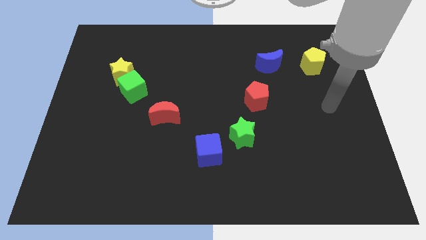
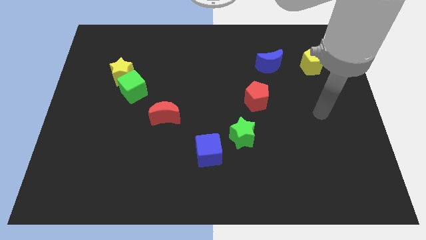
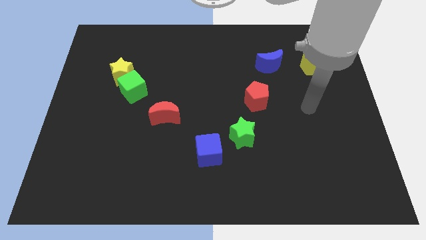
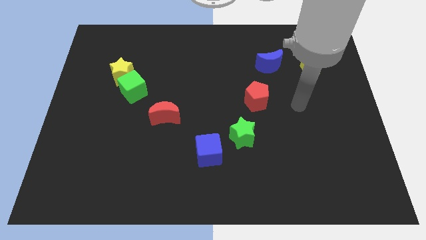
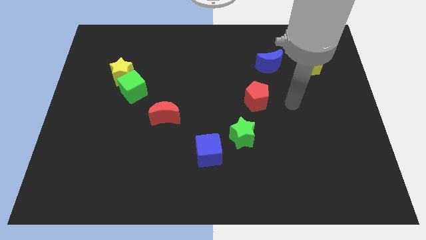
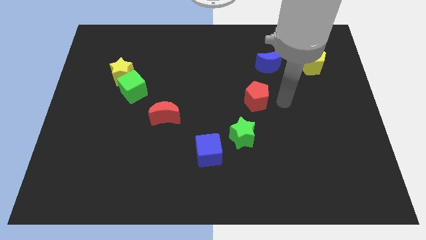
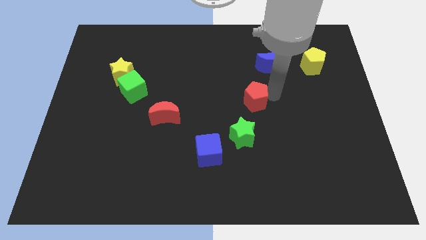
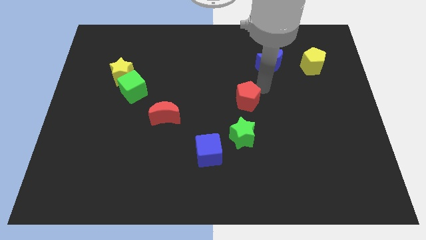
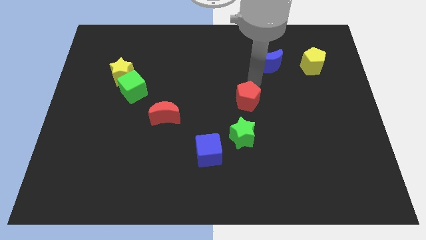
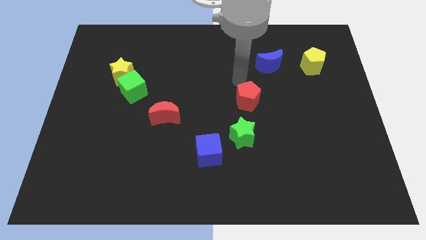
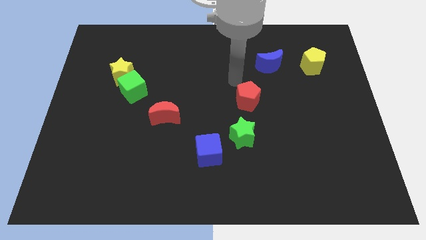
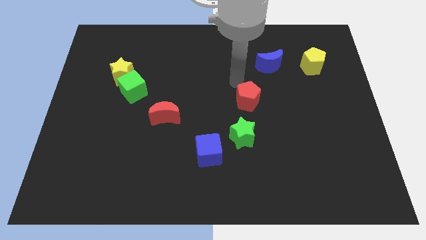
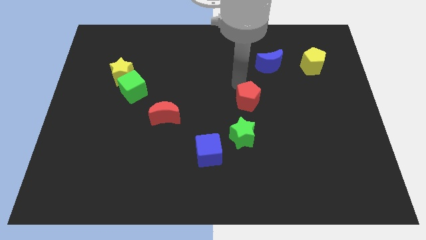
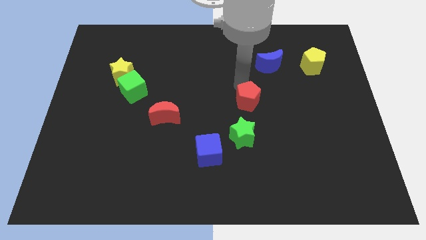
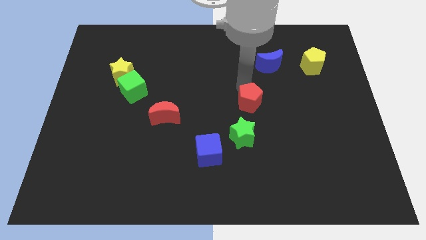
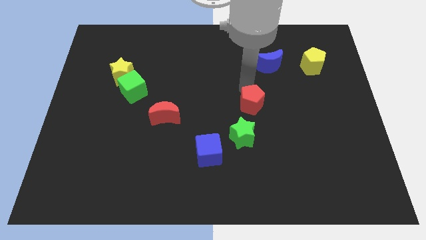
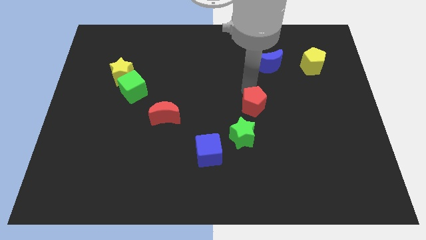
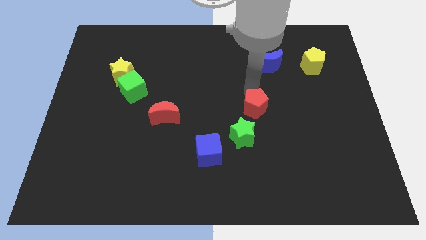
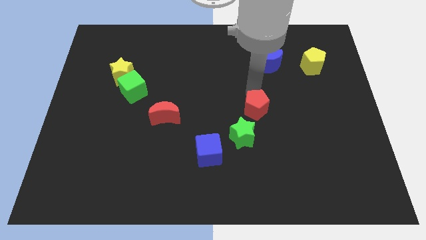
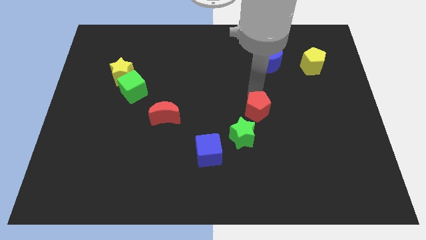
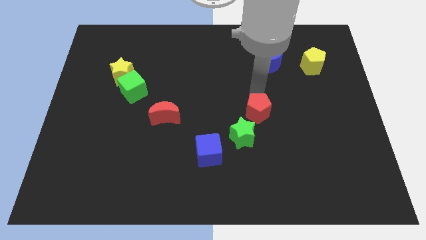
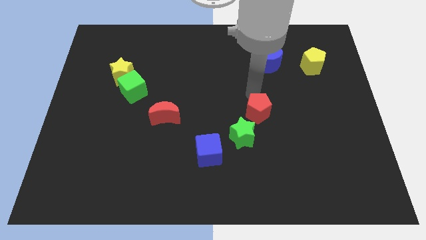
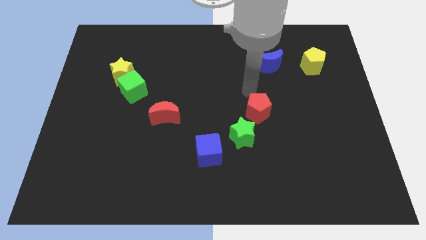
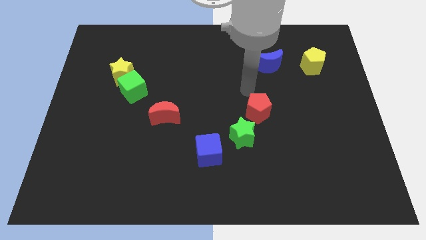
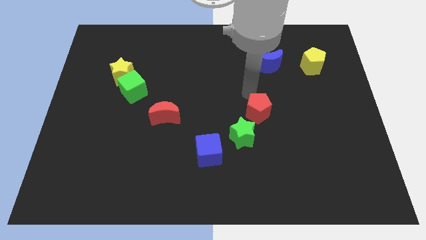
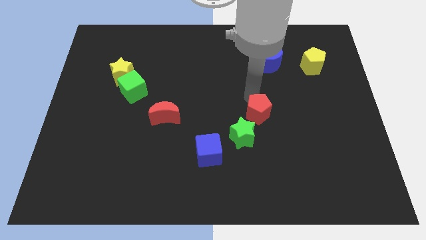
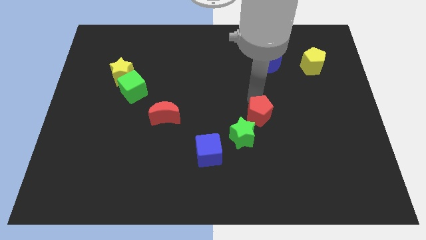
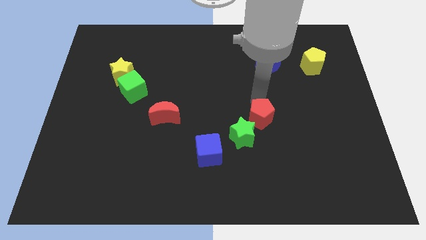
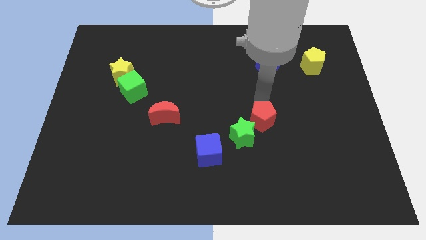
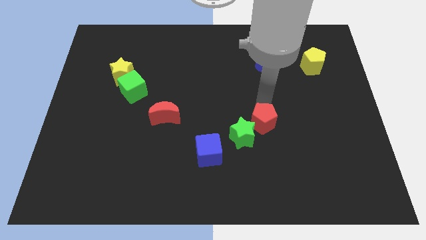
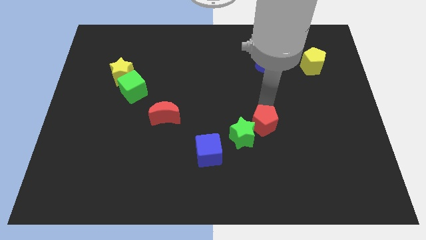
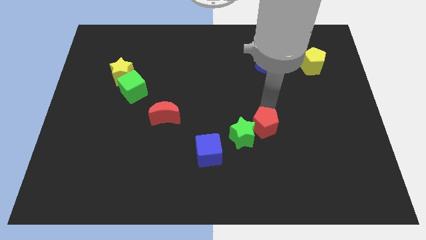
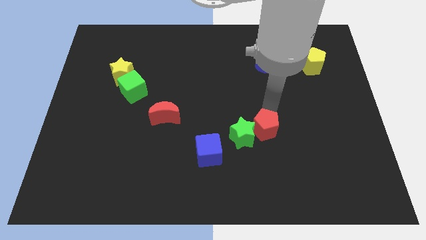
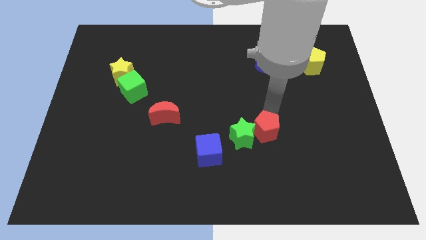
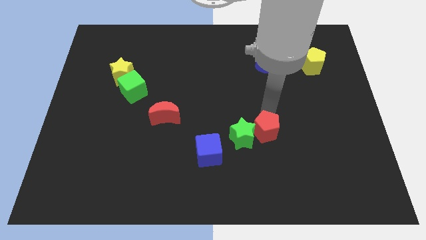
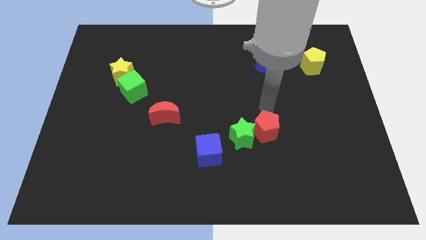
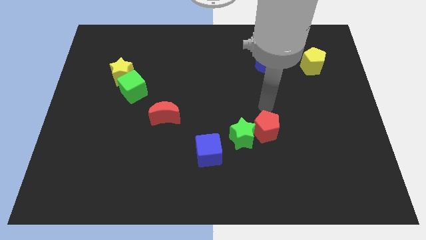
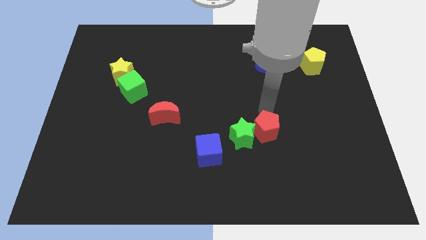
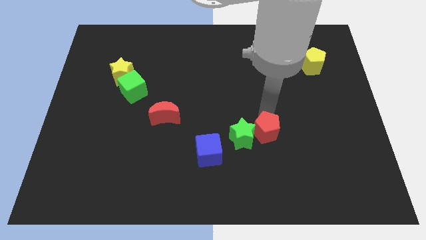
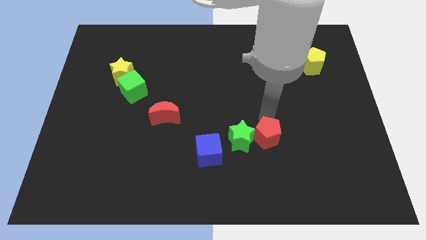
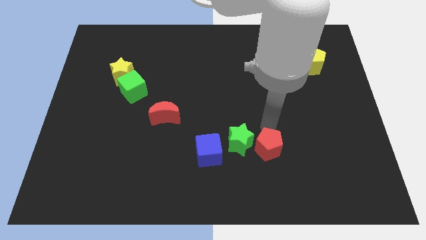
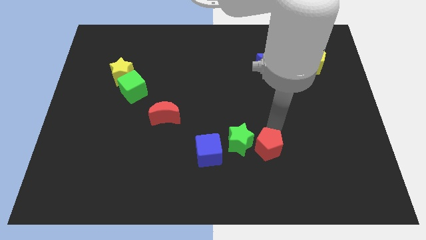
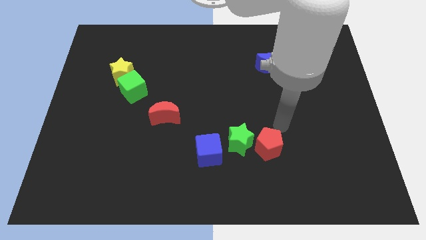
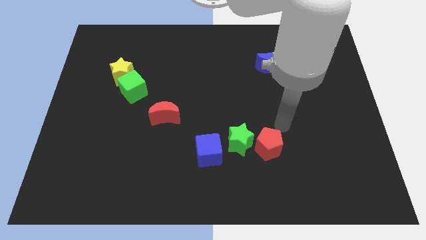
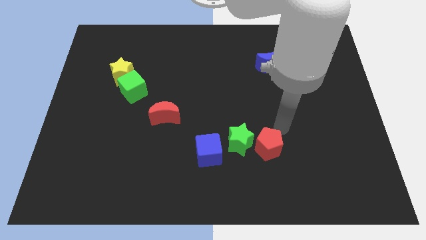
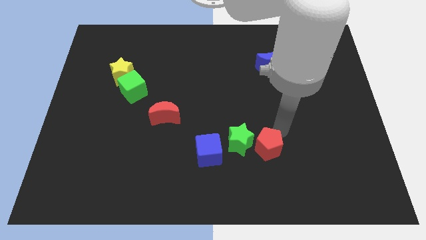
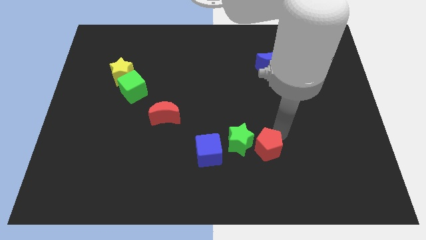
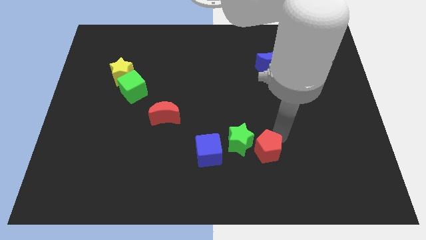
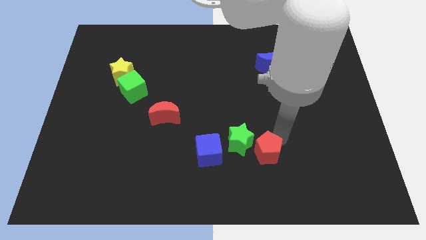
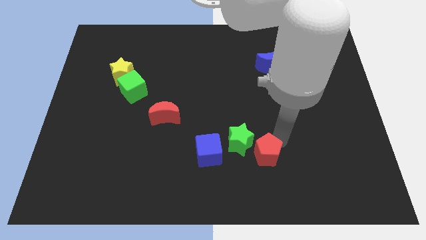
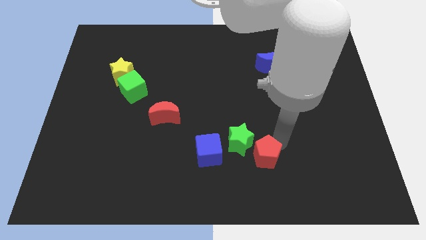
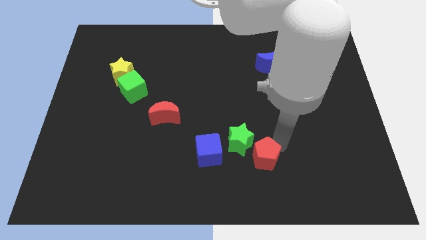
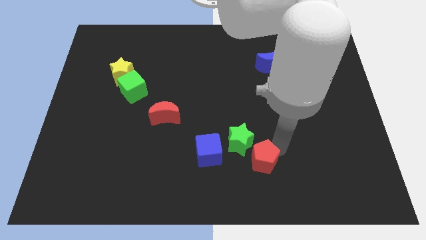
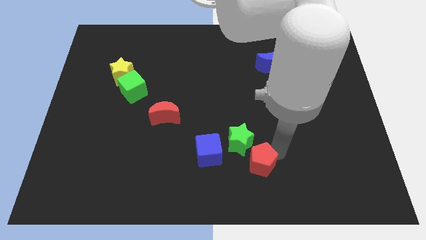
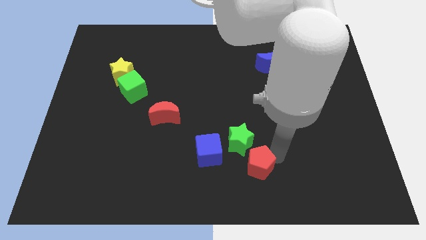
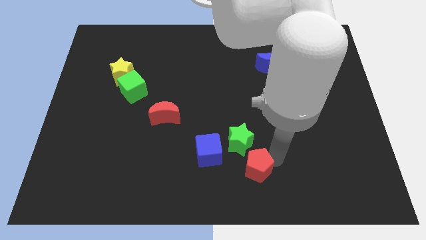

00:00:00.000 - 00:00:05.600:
push the red pentagon to the bottom side

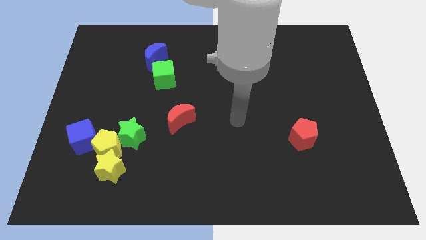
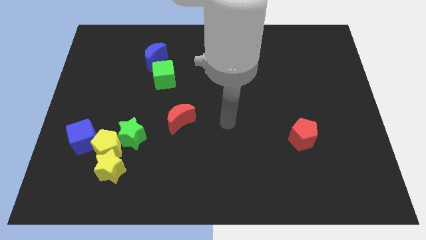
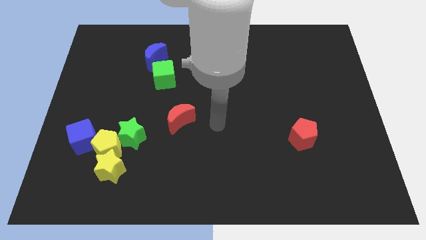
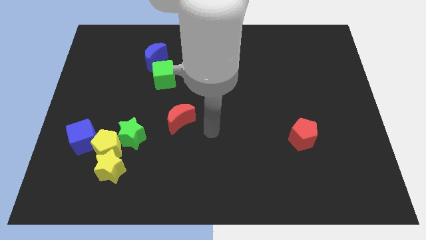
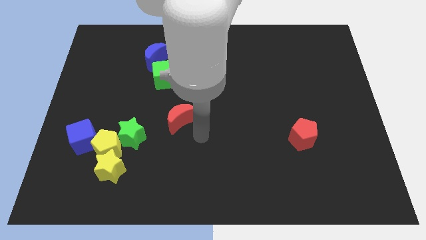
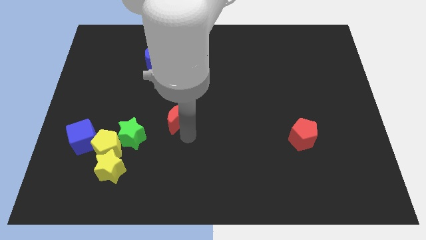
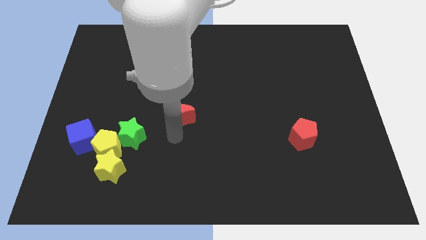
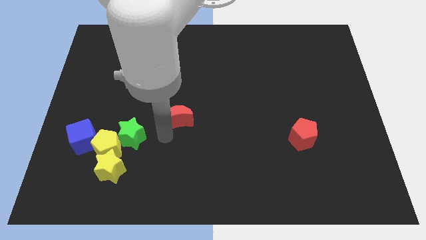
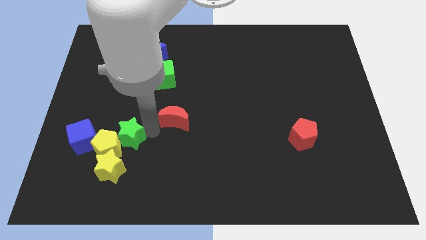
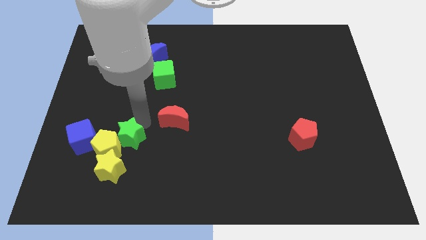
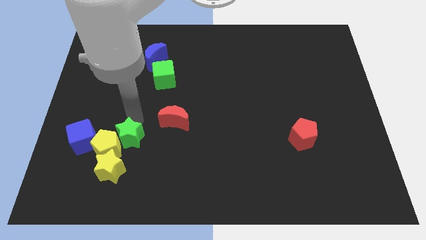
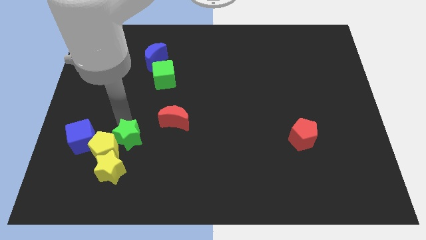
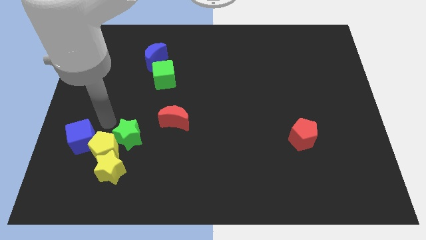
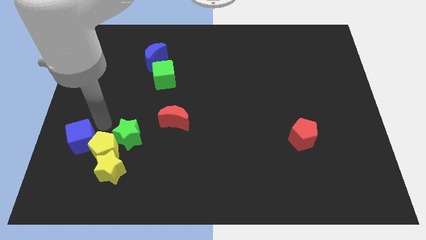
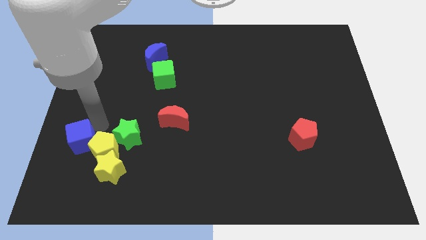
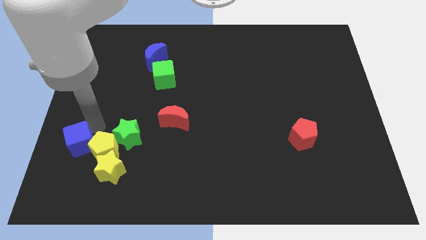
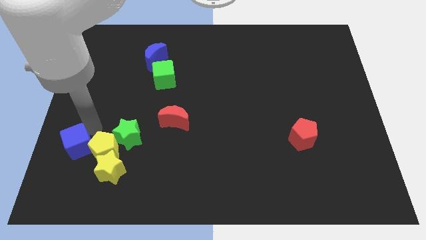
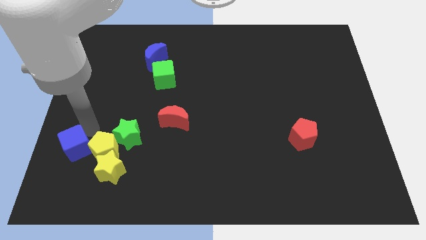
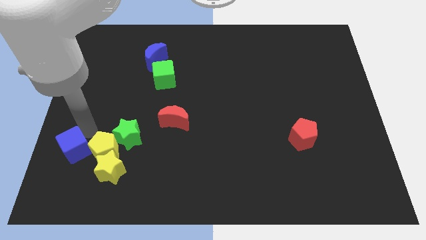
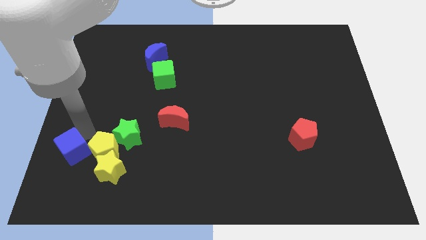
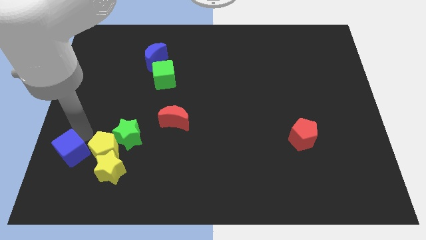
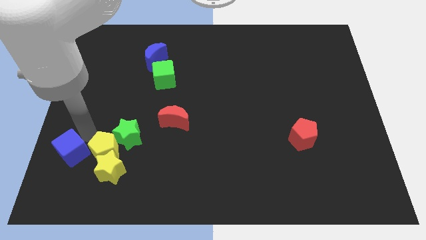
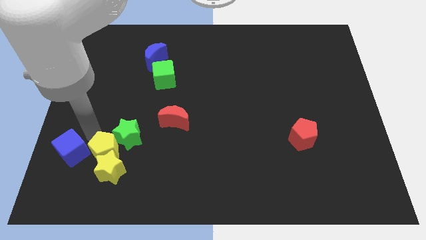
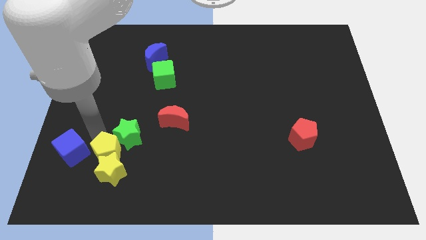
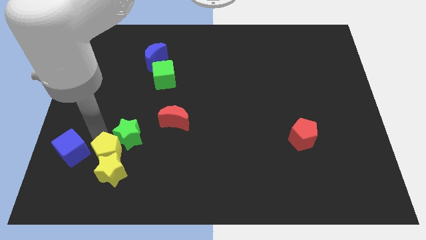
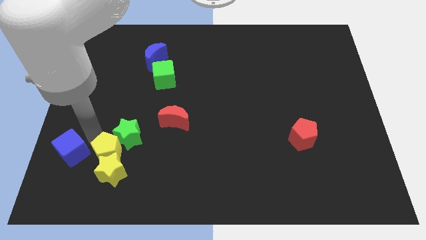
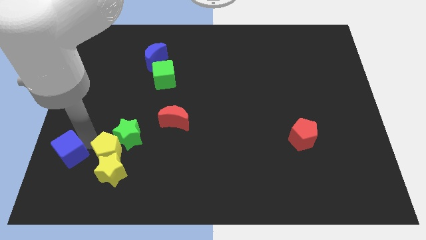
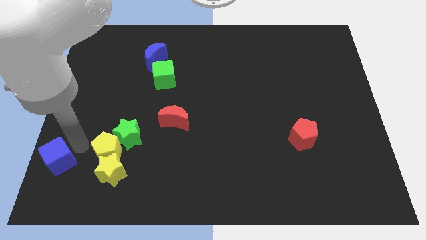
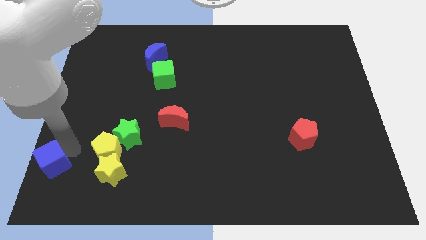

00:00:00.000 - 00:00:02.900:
push the blue cube to the bottom left corner
